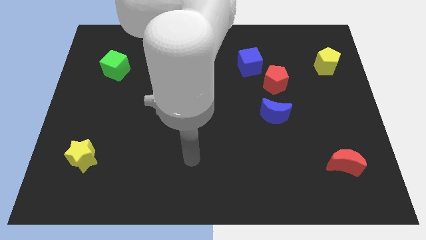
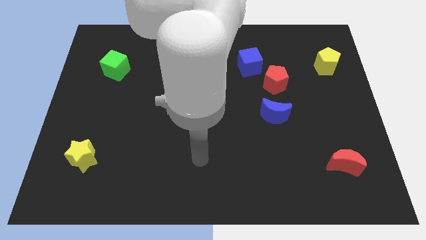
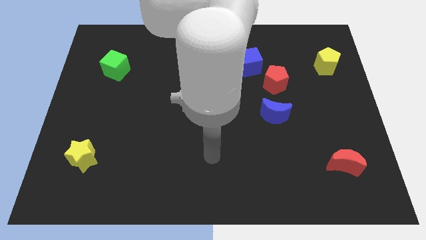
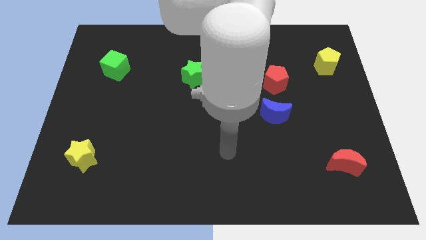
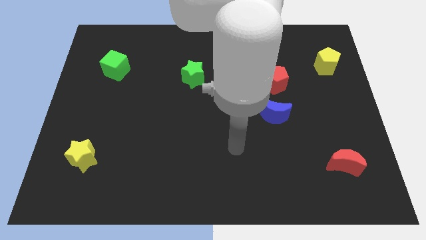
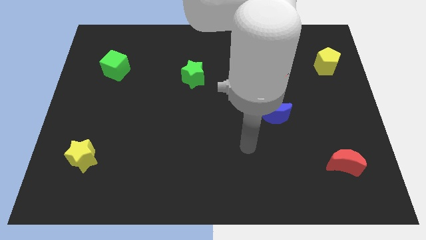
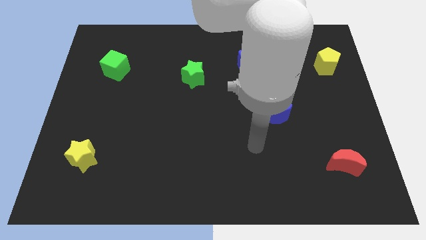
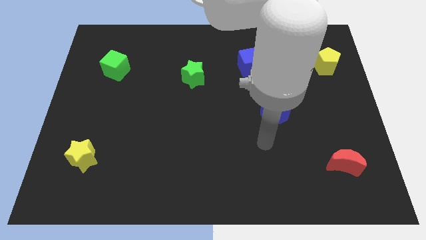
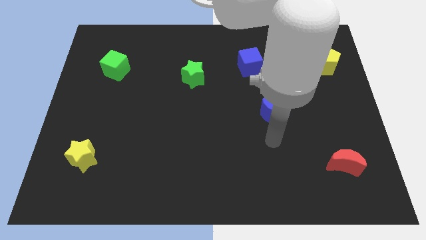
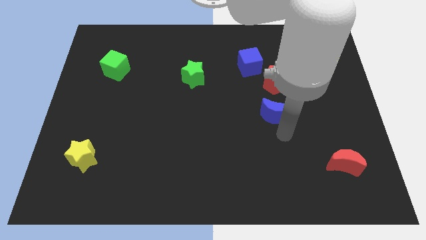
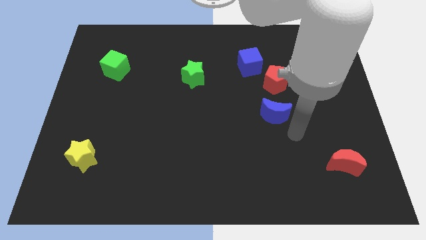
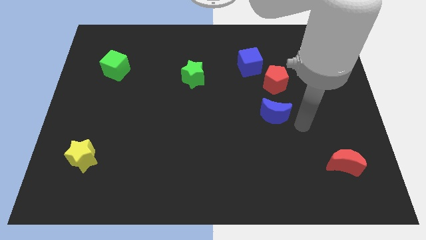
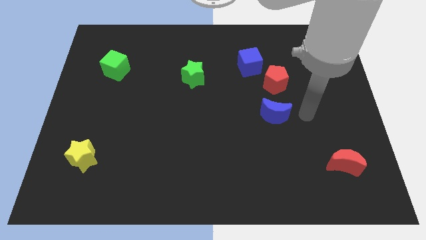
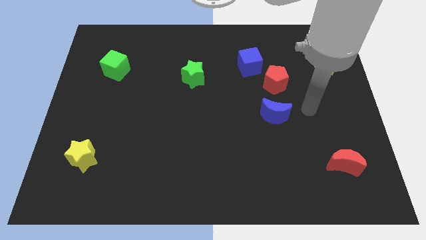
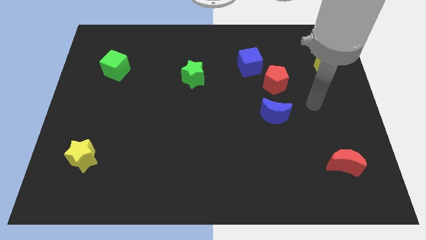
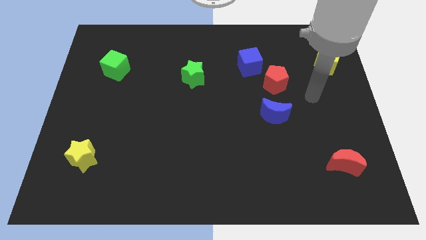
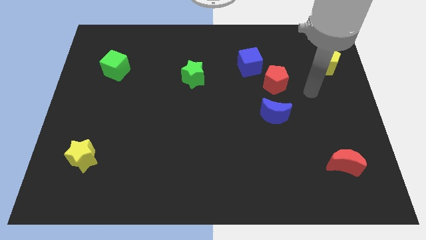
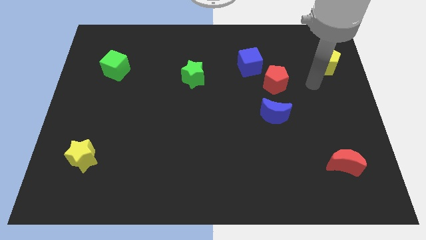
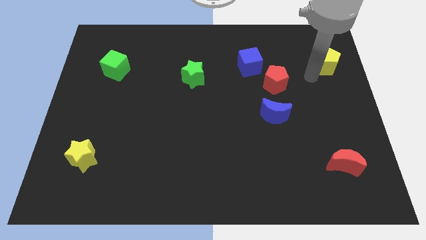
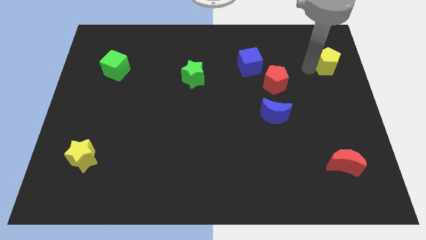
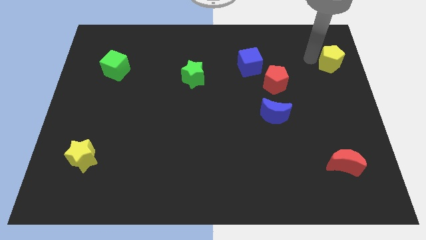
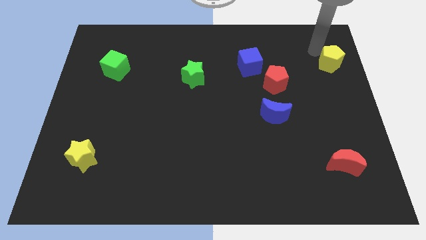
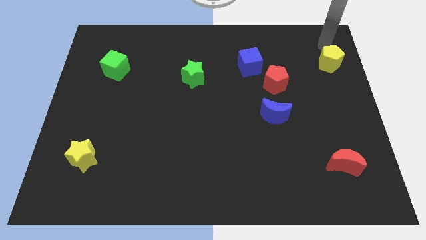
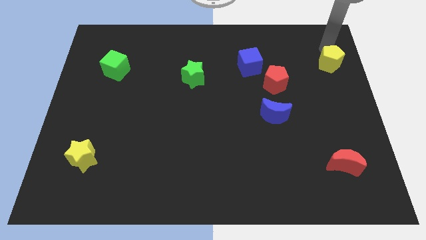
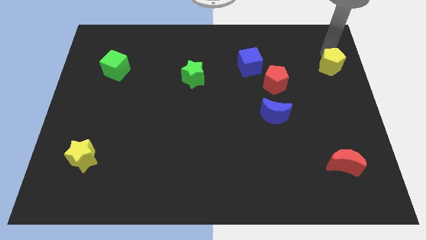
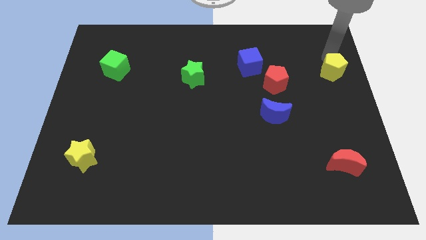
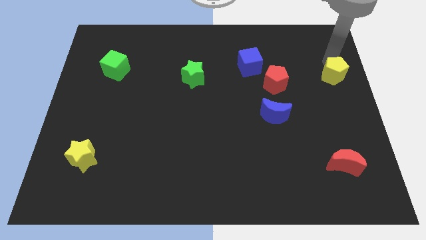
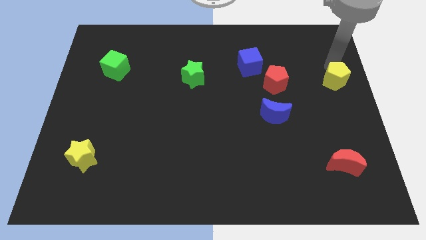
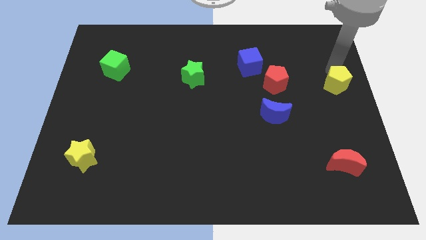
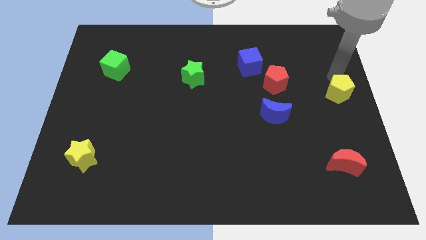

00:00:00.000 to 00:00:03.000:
slightly push the yellow pentagon downwards

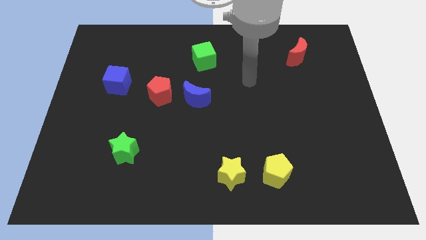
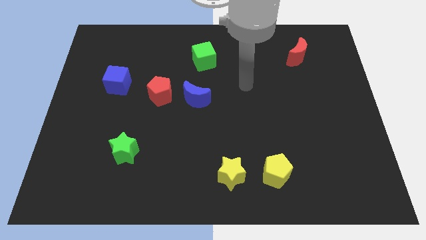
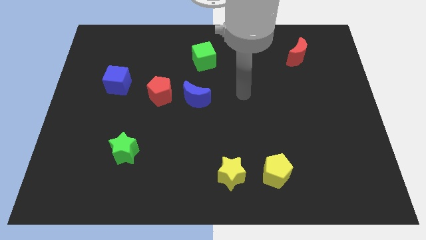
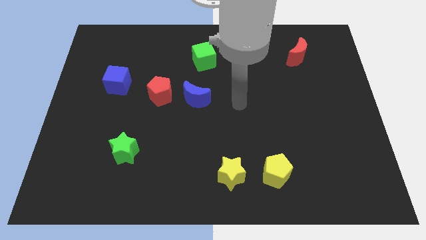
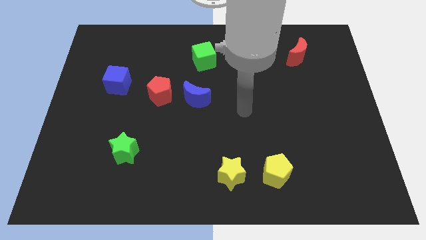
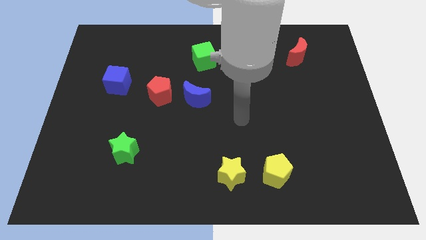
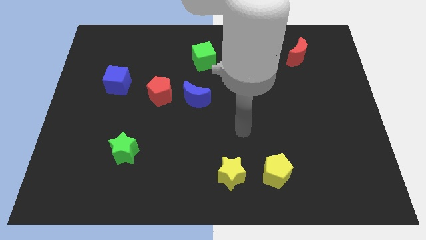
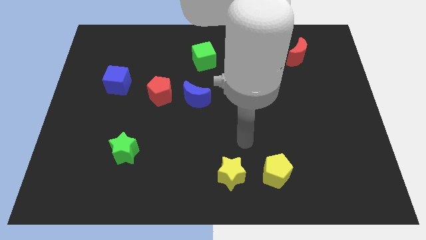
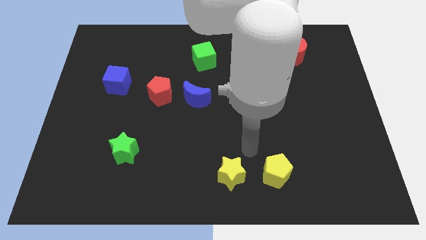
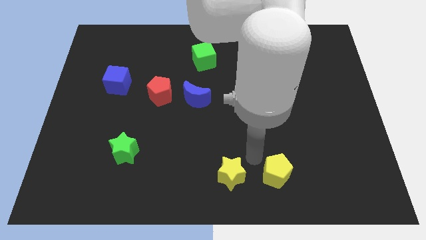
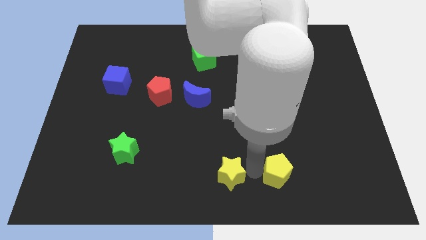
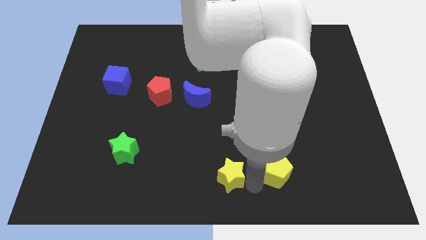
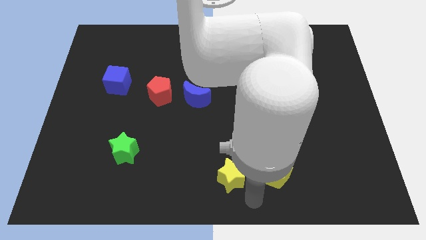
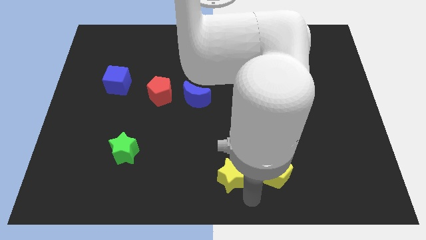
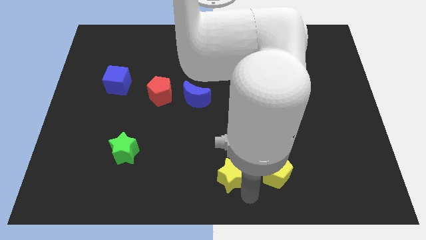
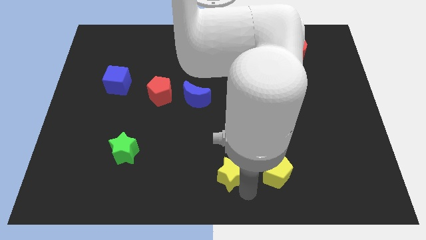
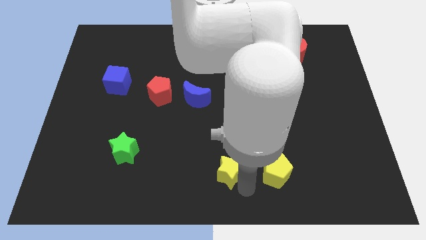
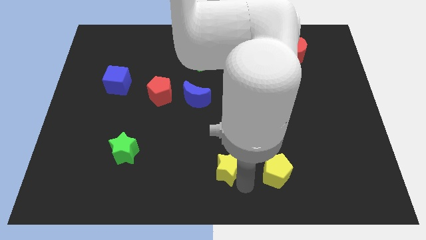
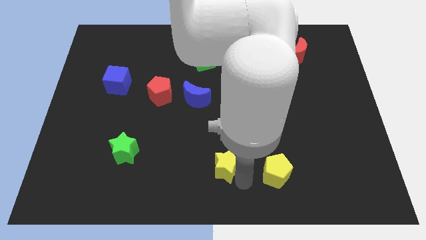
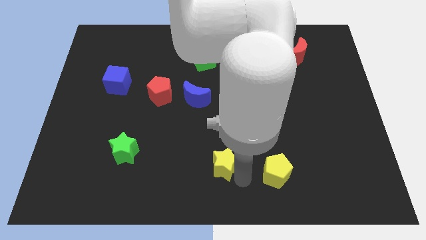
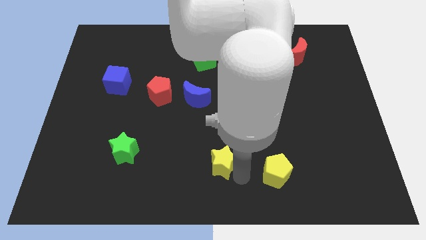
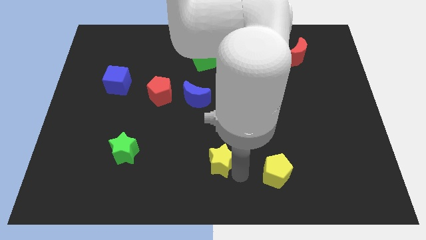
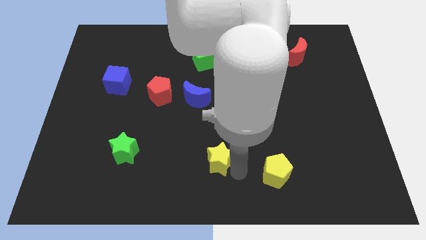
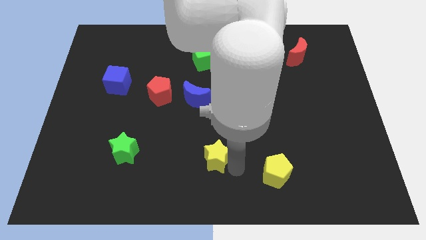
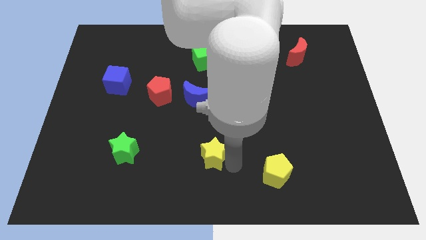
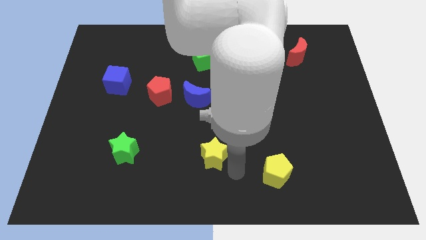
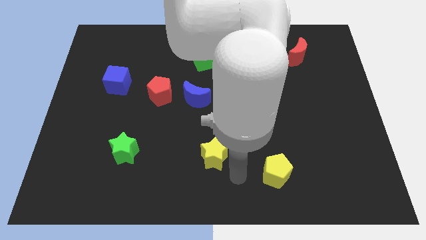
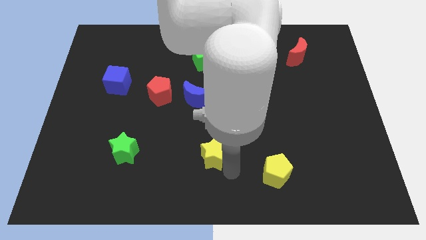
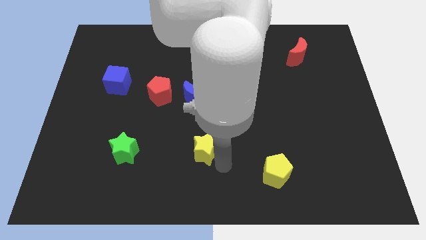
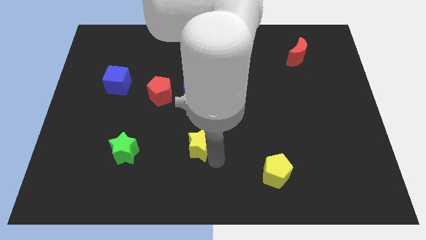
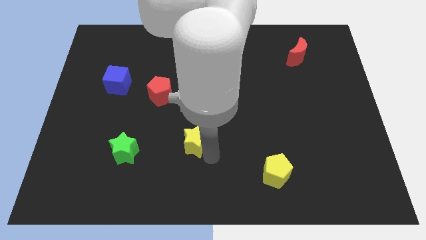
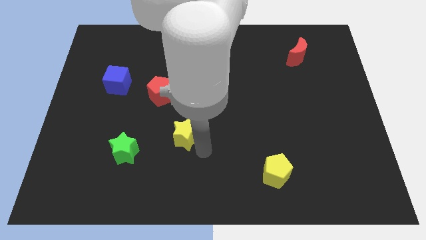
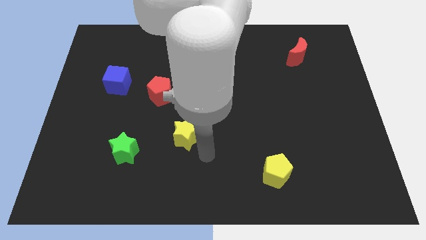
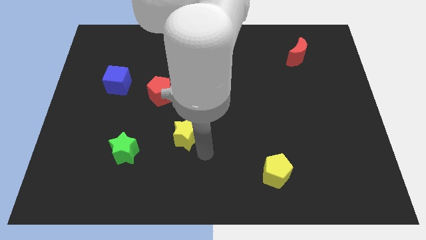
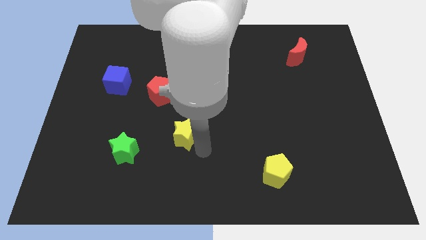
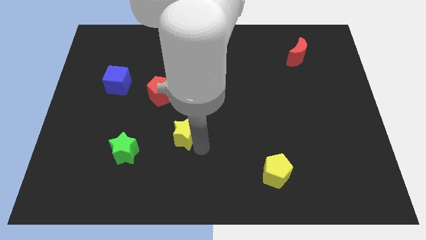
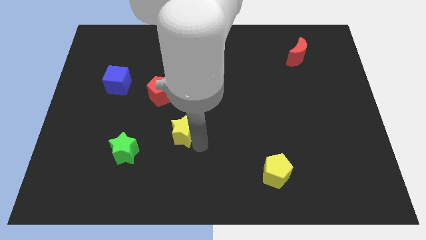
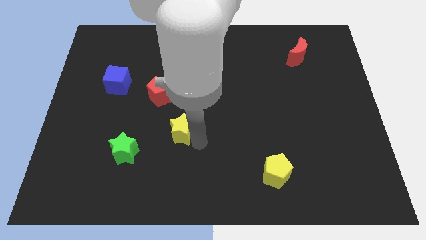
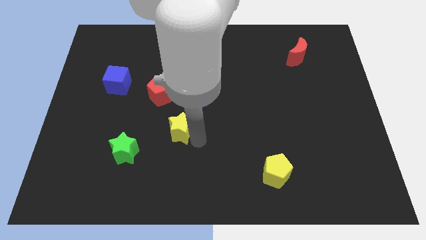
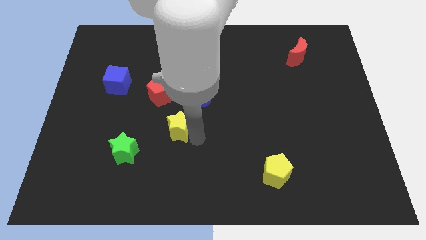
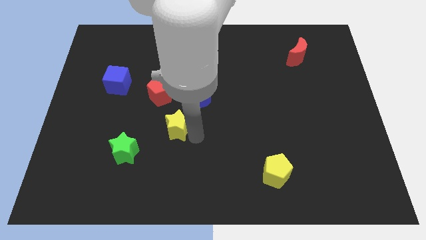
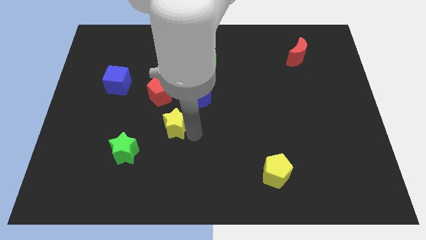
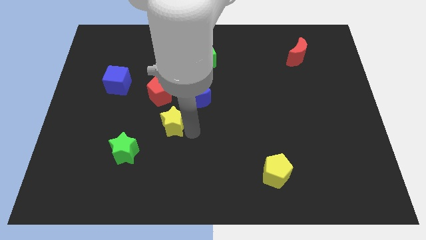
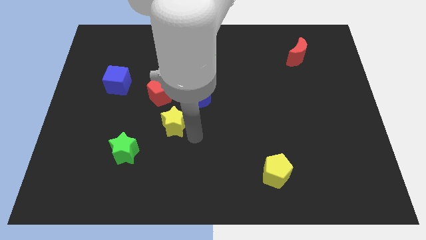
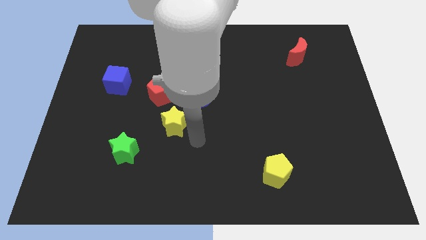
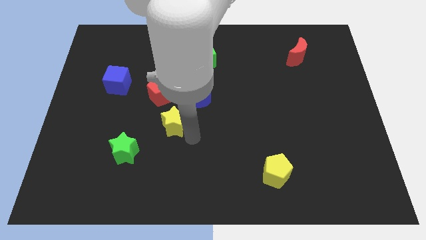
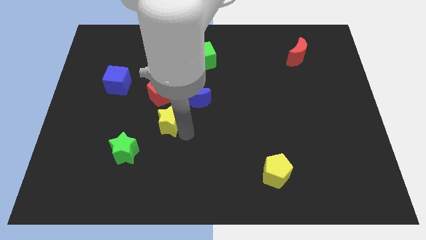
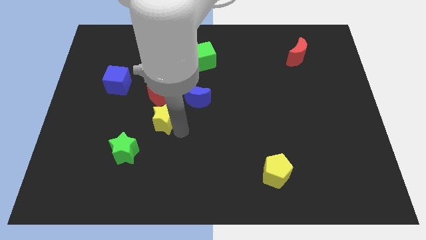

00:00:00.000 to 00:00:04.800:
push the yellow star up and then to the left

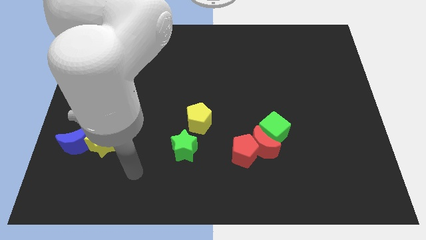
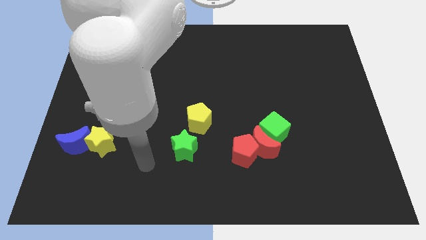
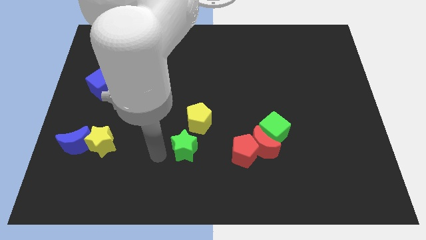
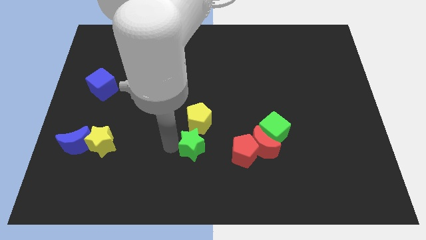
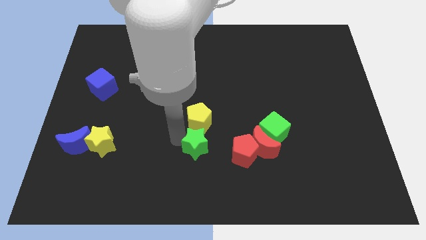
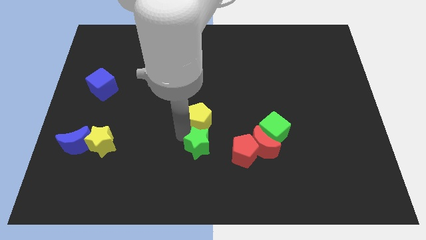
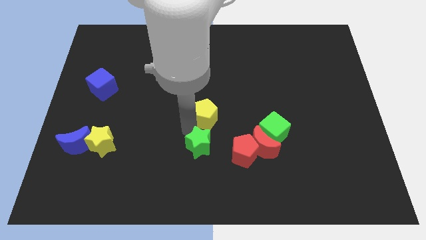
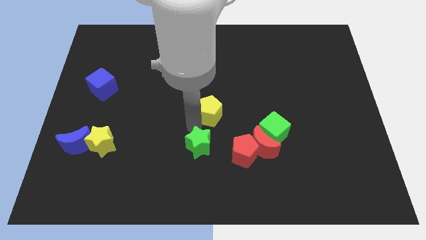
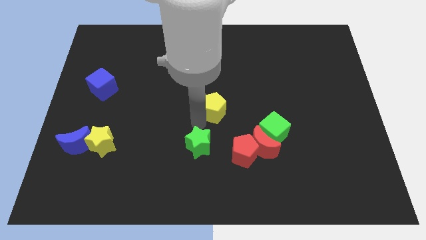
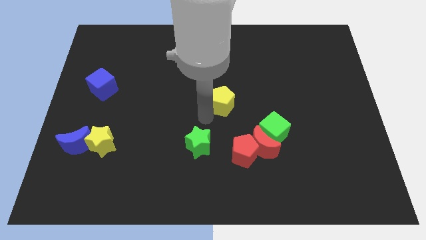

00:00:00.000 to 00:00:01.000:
slightly slide the yellow pentagon upwards and right
